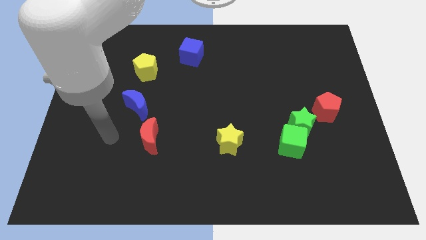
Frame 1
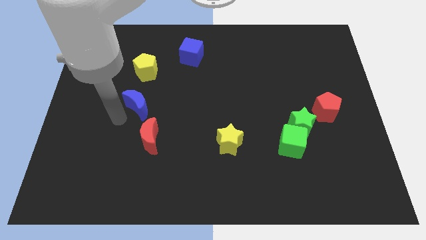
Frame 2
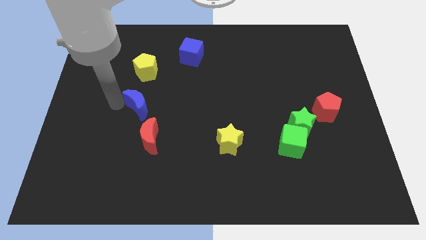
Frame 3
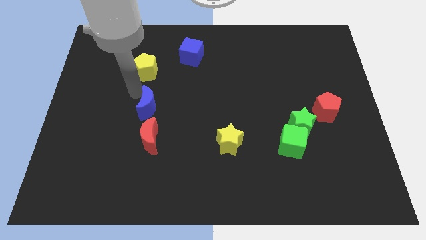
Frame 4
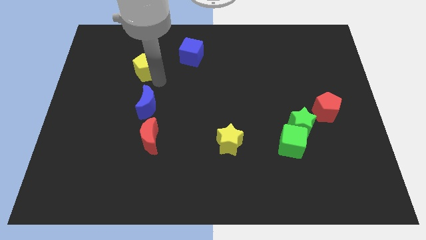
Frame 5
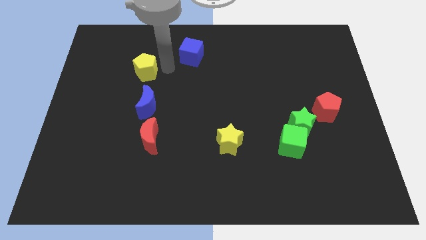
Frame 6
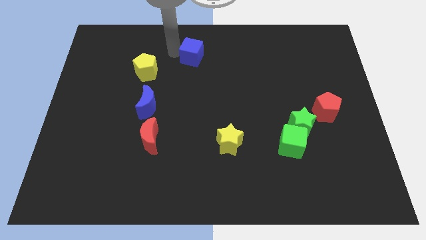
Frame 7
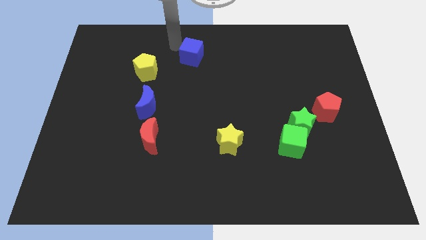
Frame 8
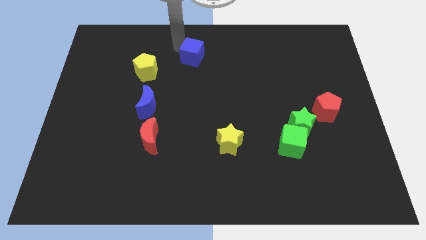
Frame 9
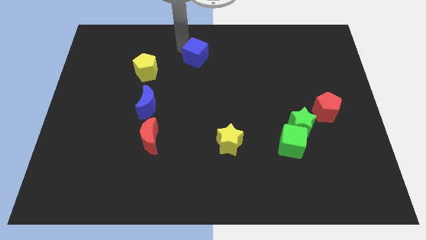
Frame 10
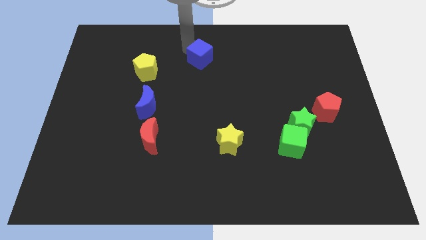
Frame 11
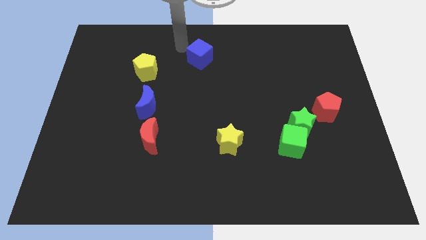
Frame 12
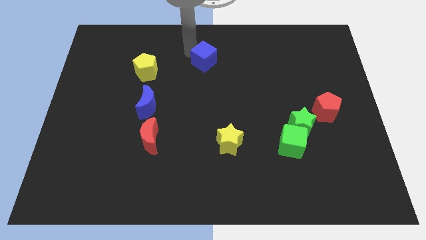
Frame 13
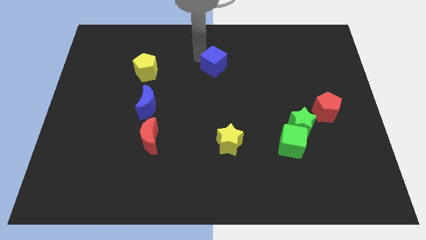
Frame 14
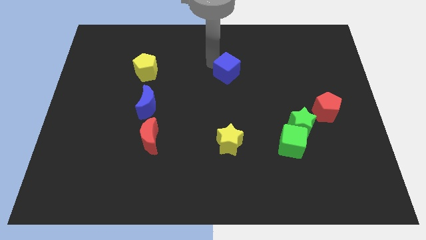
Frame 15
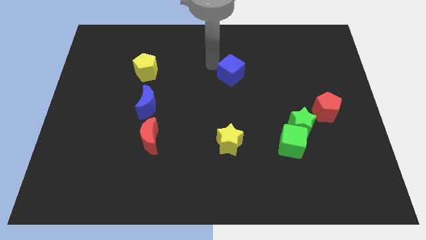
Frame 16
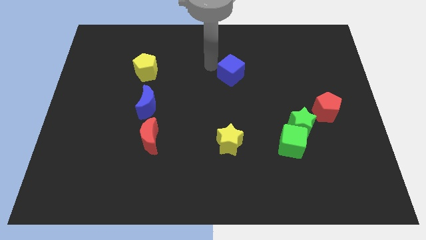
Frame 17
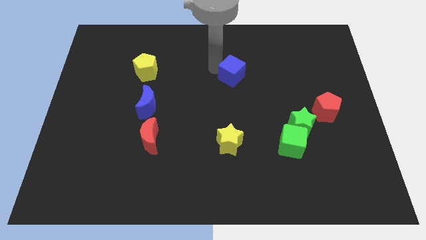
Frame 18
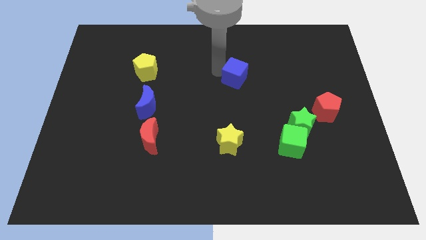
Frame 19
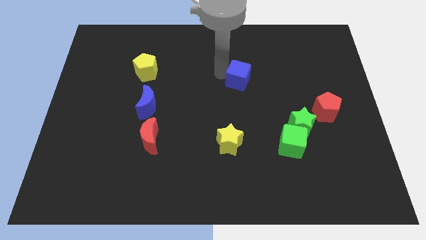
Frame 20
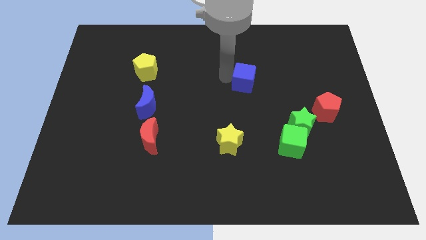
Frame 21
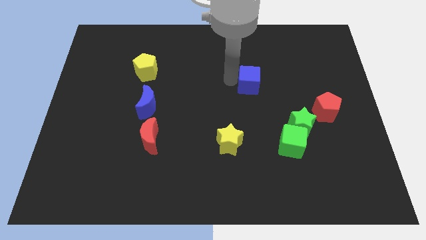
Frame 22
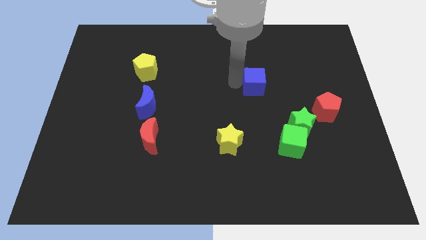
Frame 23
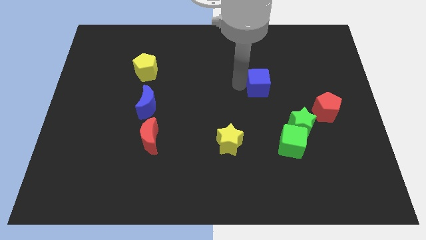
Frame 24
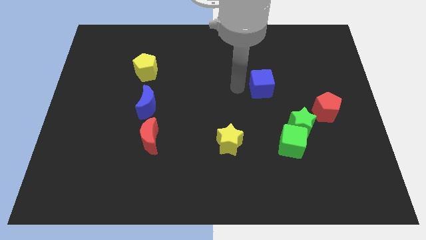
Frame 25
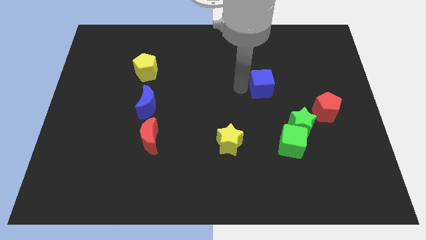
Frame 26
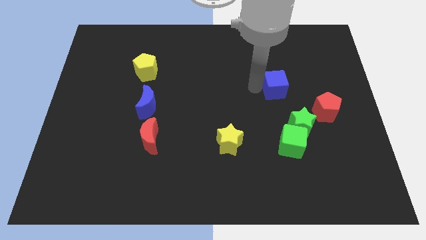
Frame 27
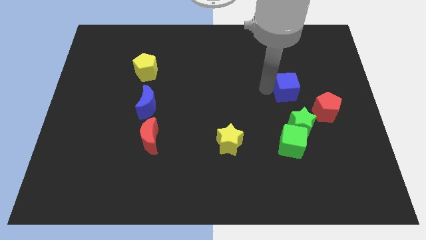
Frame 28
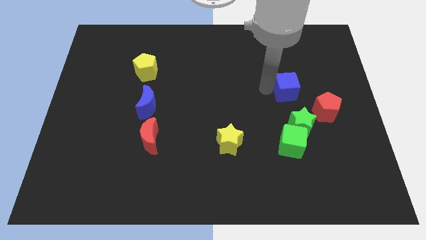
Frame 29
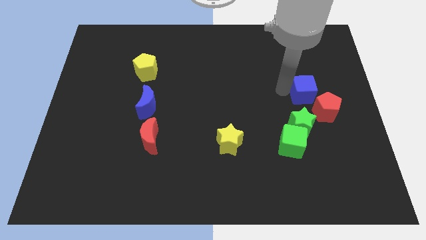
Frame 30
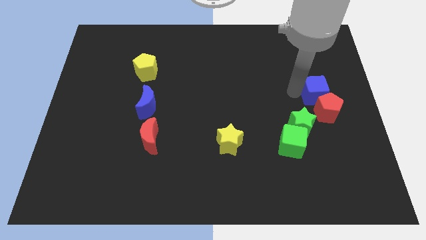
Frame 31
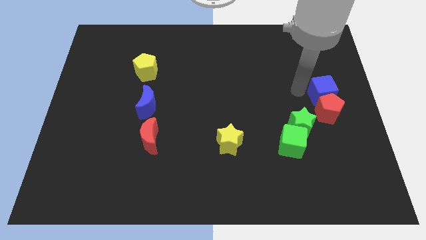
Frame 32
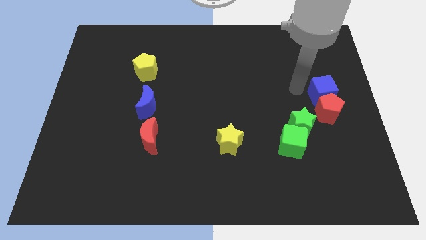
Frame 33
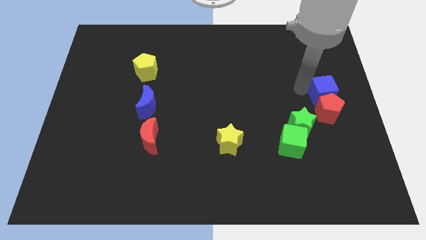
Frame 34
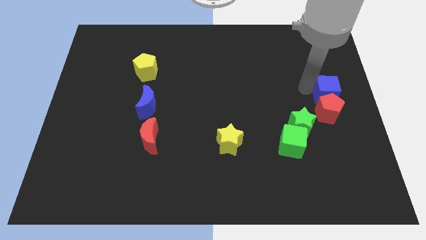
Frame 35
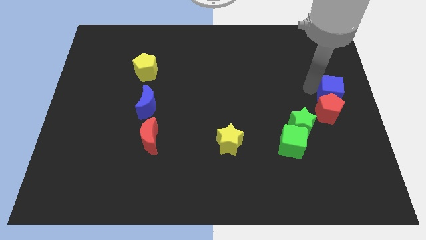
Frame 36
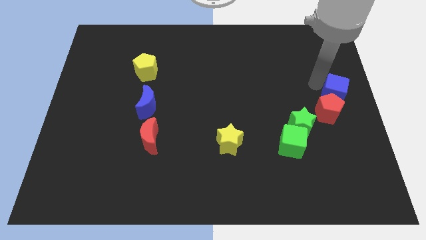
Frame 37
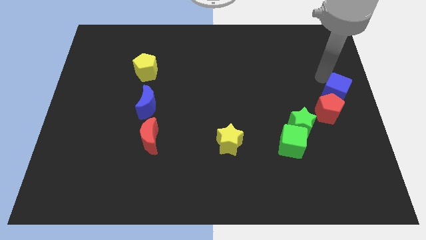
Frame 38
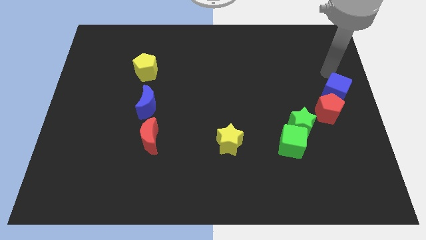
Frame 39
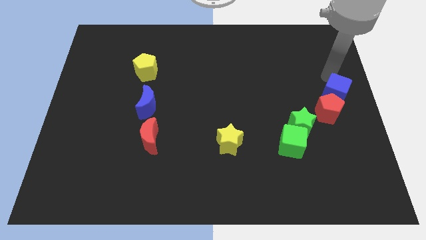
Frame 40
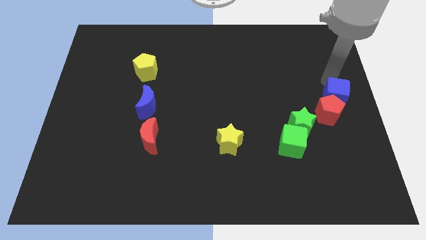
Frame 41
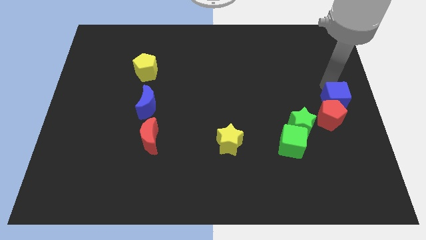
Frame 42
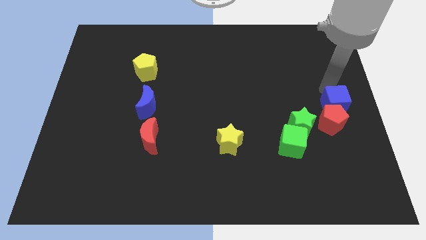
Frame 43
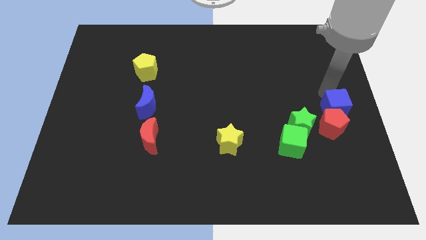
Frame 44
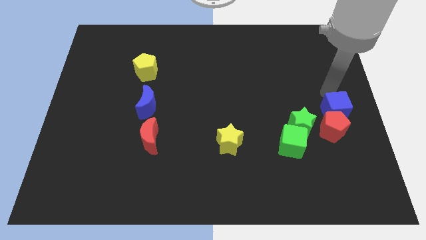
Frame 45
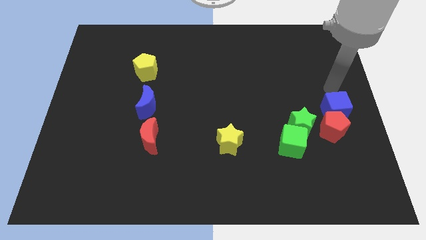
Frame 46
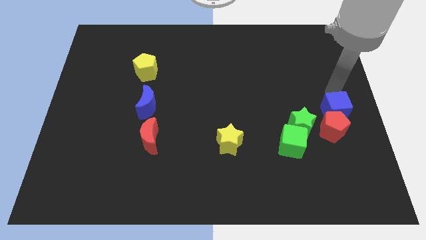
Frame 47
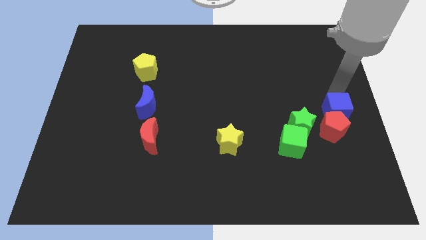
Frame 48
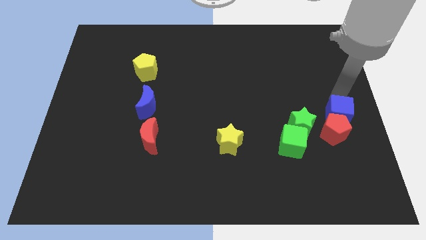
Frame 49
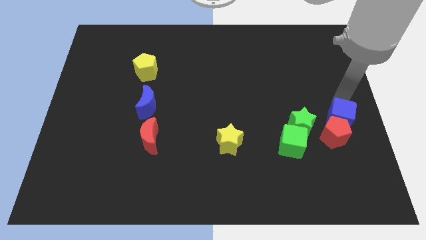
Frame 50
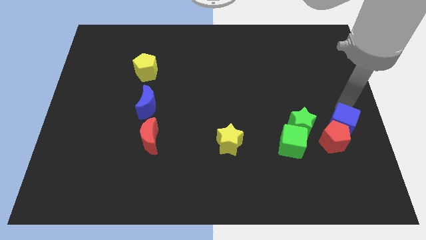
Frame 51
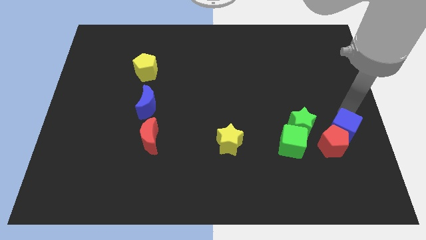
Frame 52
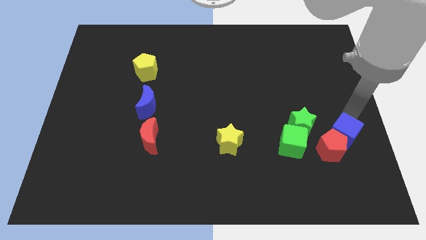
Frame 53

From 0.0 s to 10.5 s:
slide the blue cube diagonally down and to the right of the green star

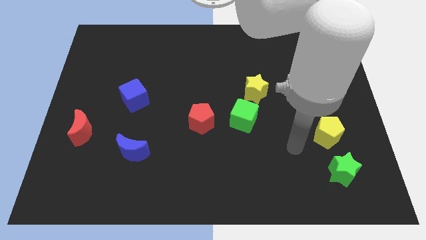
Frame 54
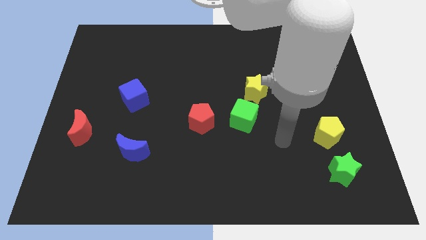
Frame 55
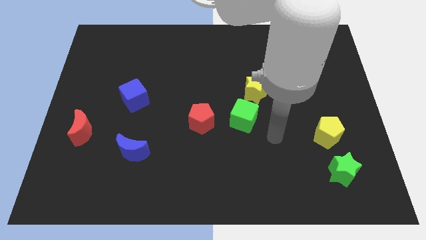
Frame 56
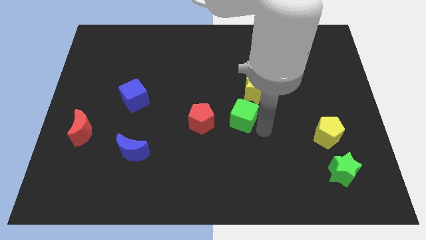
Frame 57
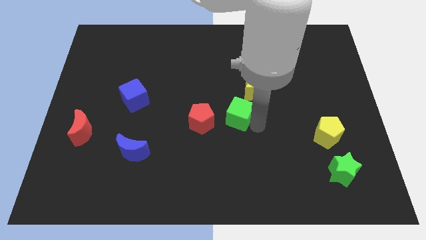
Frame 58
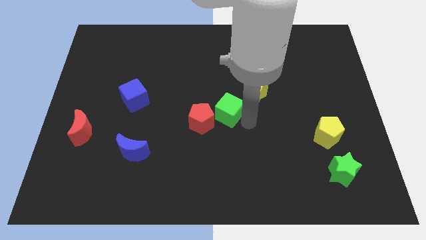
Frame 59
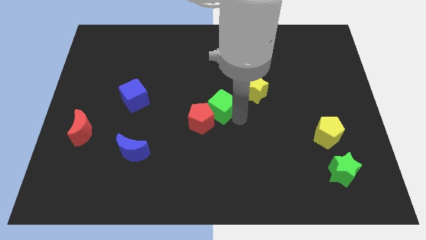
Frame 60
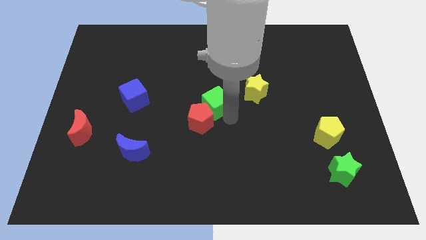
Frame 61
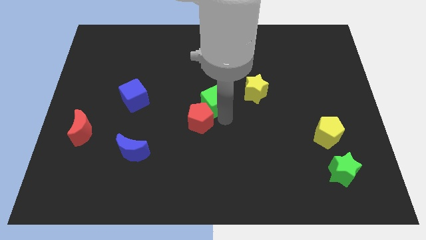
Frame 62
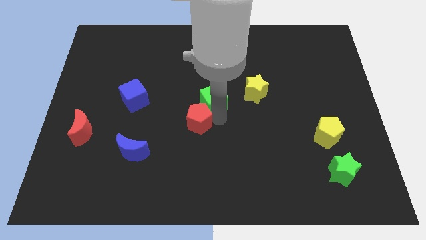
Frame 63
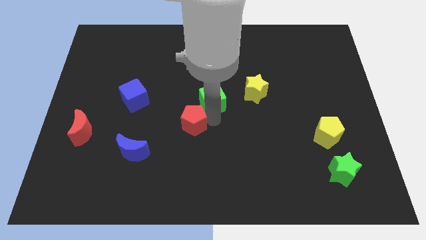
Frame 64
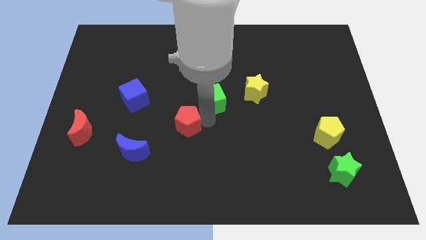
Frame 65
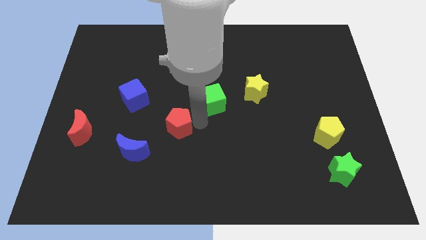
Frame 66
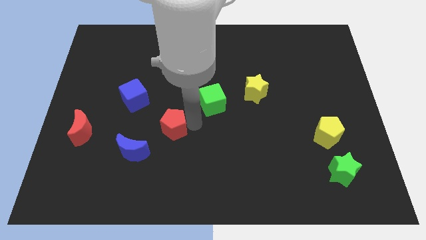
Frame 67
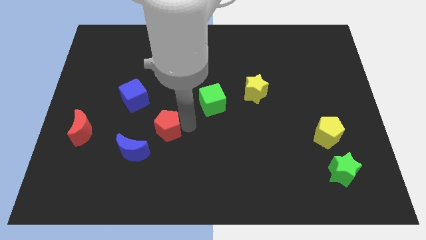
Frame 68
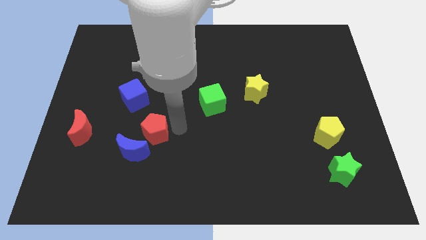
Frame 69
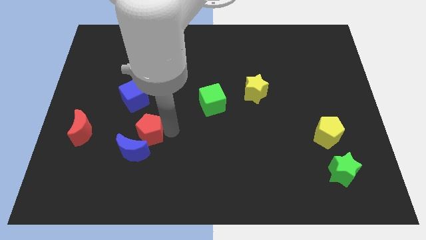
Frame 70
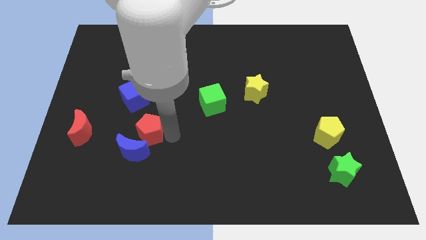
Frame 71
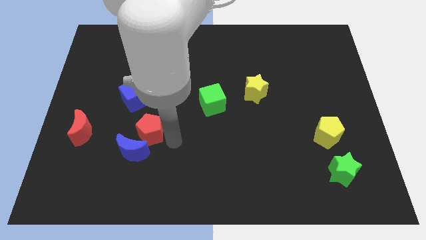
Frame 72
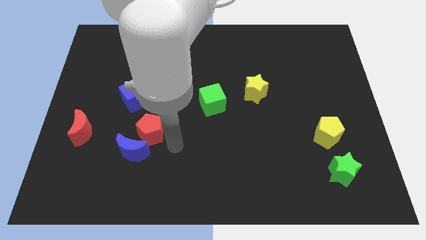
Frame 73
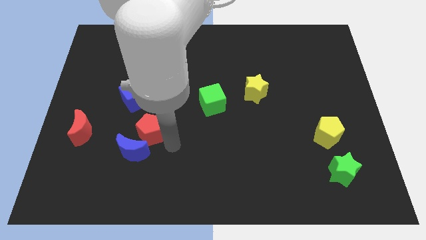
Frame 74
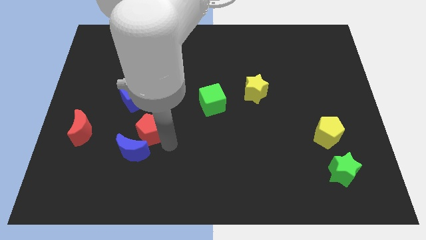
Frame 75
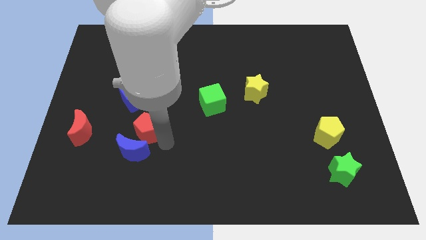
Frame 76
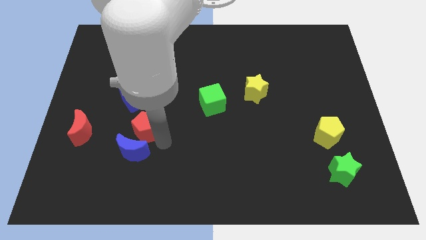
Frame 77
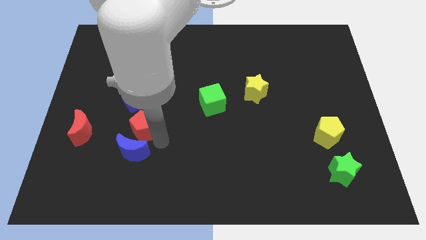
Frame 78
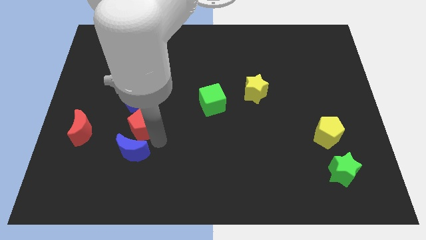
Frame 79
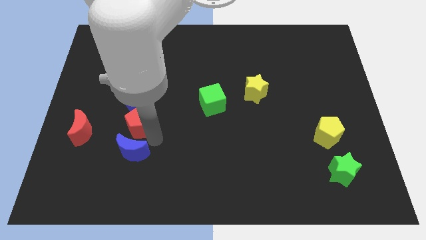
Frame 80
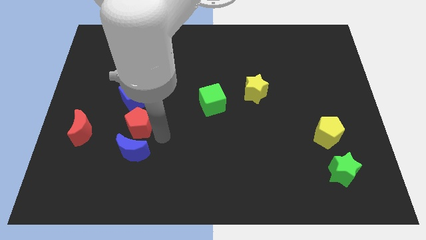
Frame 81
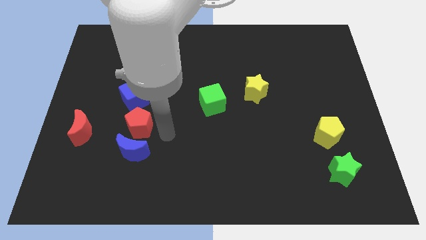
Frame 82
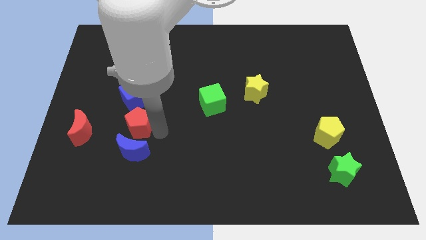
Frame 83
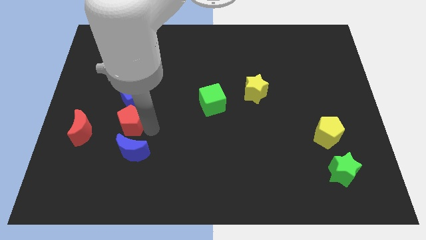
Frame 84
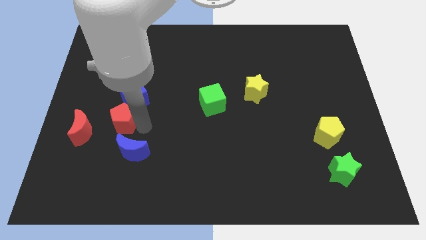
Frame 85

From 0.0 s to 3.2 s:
put the red pentagon diagonally down and to the left of the blue cube
